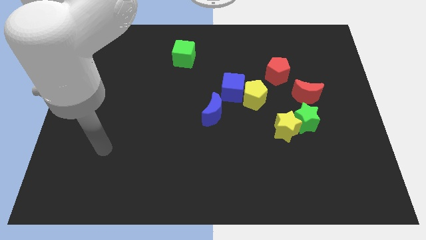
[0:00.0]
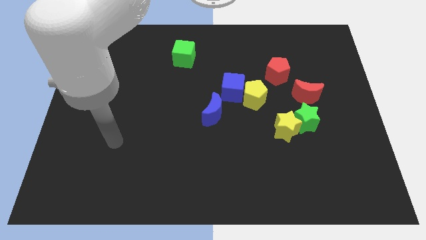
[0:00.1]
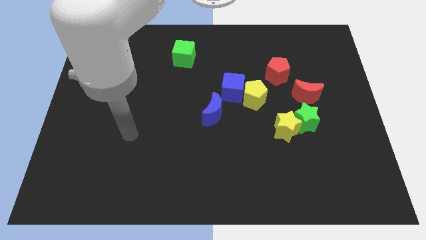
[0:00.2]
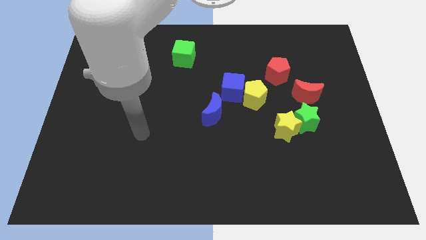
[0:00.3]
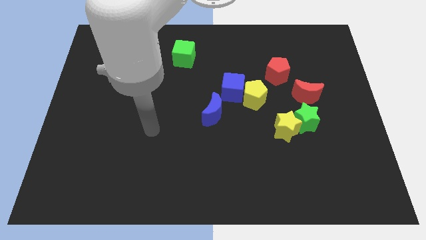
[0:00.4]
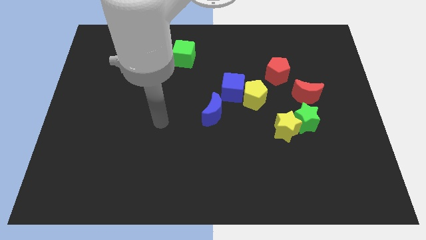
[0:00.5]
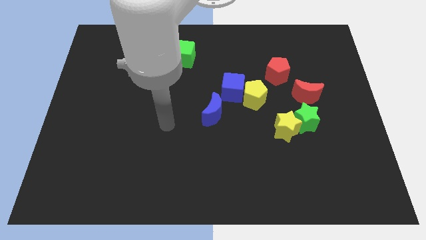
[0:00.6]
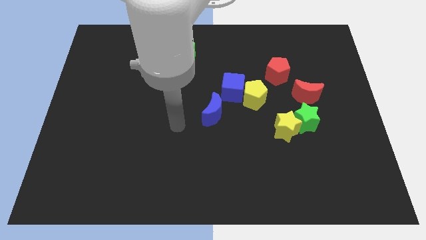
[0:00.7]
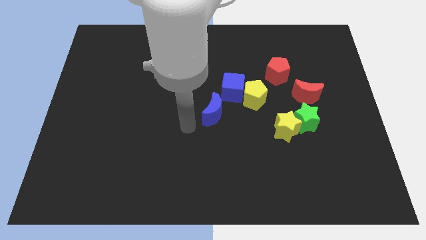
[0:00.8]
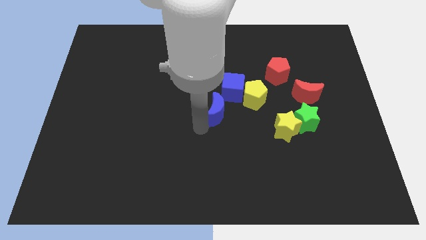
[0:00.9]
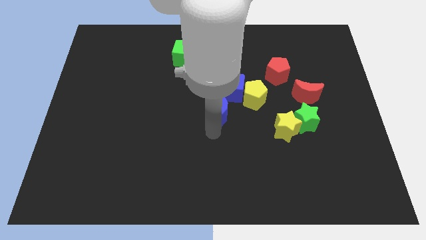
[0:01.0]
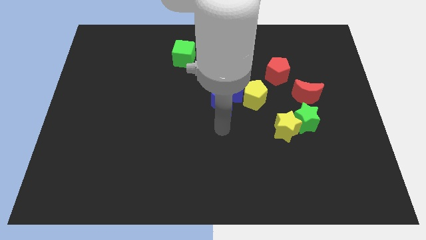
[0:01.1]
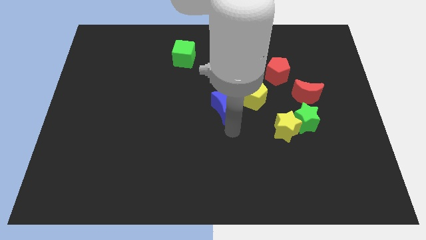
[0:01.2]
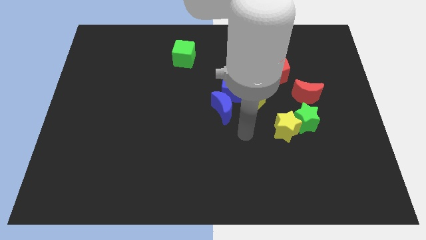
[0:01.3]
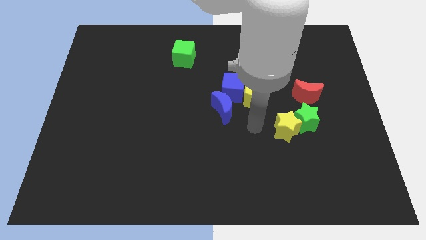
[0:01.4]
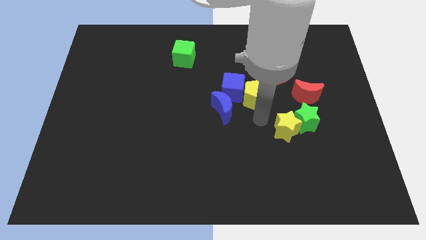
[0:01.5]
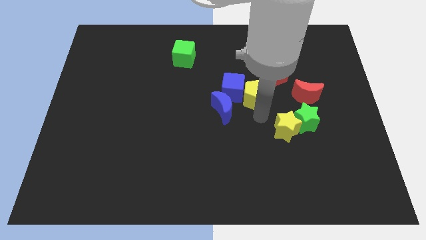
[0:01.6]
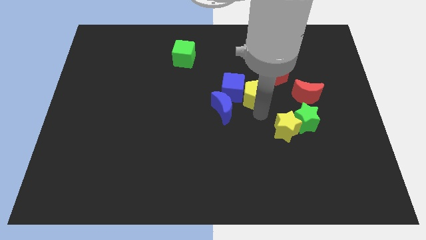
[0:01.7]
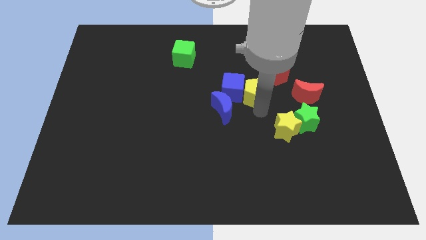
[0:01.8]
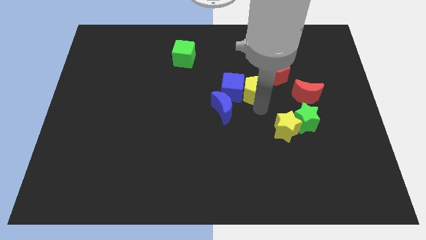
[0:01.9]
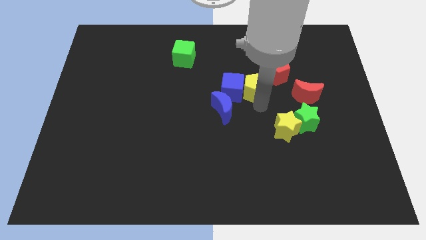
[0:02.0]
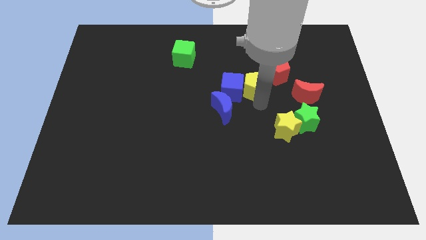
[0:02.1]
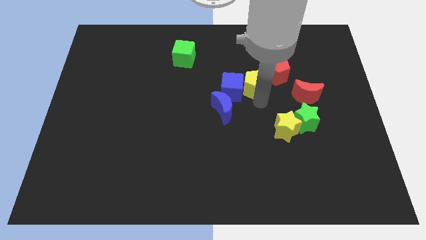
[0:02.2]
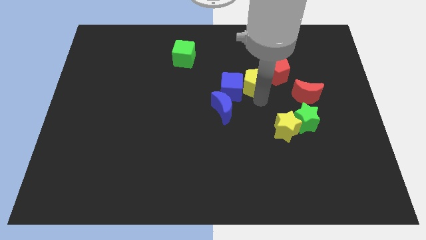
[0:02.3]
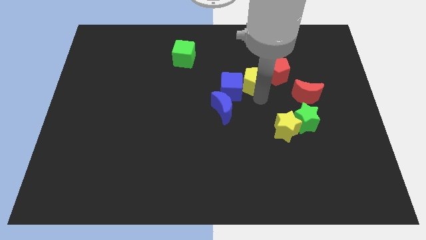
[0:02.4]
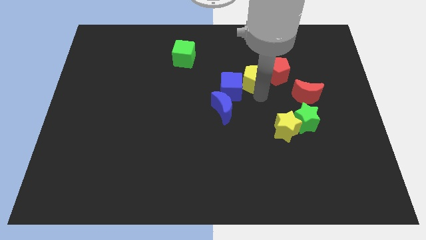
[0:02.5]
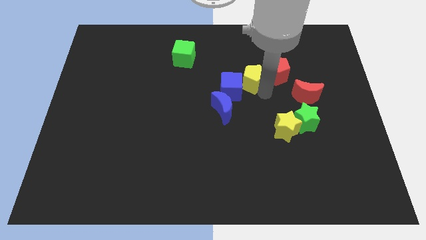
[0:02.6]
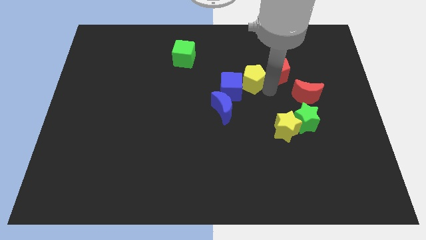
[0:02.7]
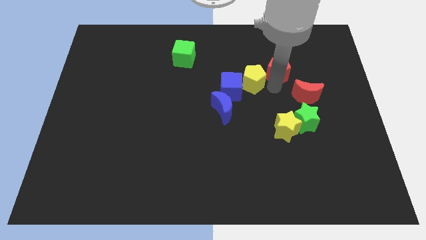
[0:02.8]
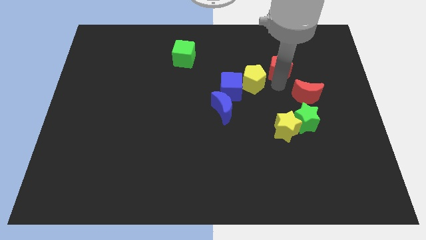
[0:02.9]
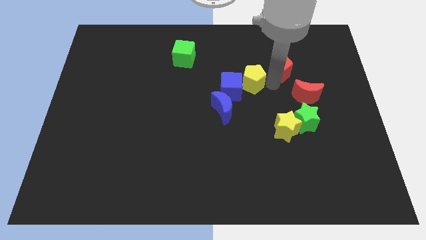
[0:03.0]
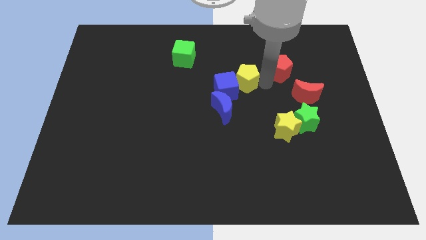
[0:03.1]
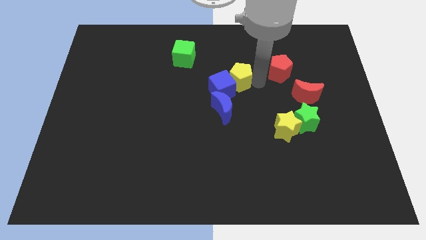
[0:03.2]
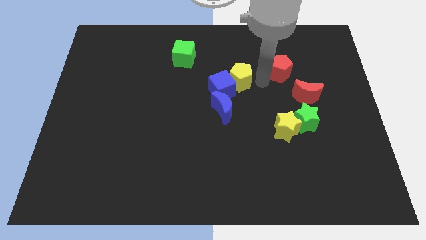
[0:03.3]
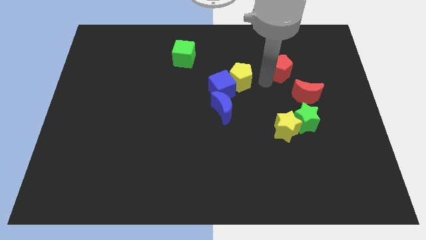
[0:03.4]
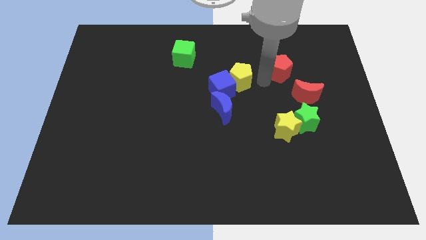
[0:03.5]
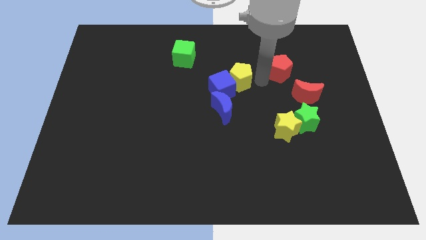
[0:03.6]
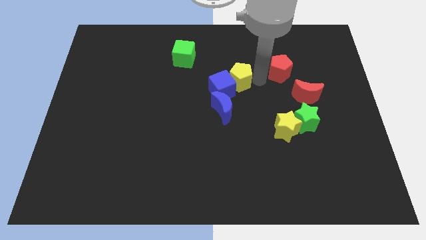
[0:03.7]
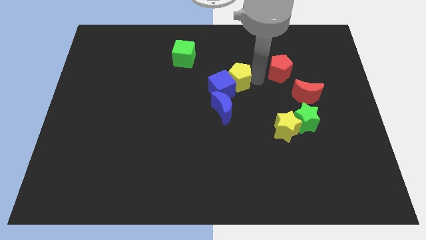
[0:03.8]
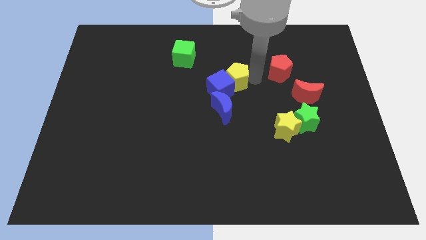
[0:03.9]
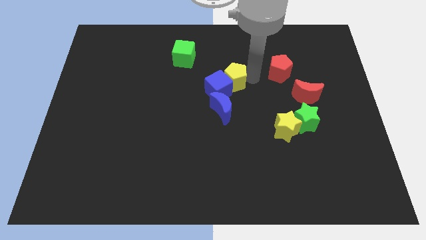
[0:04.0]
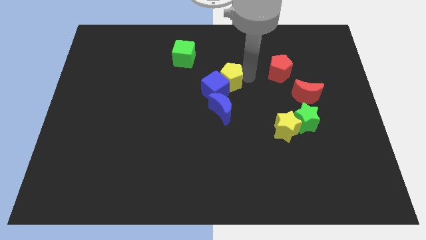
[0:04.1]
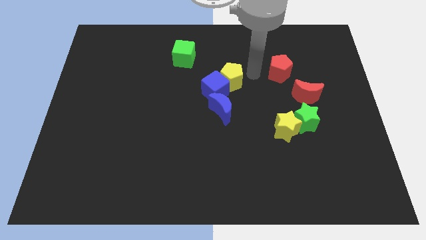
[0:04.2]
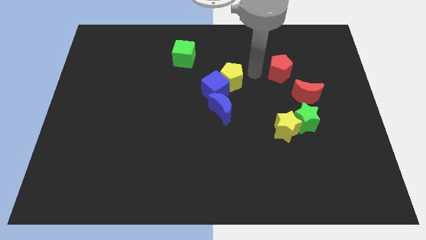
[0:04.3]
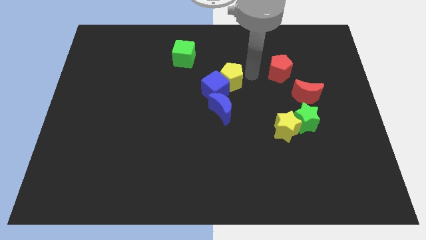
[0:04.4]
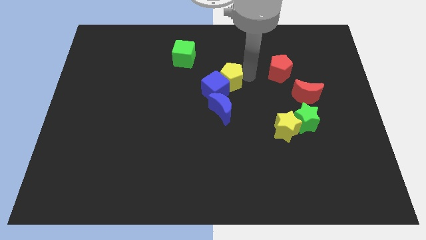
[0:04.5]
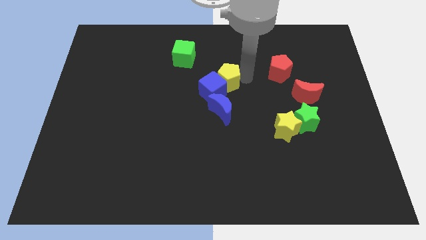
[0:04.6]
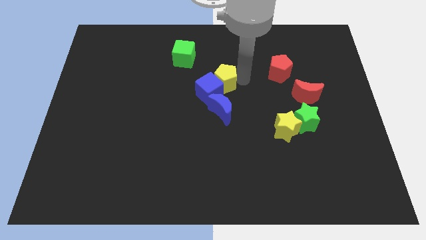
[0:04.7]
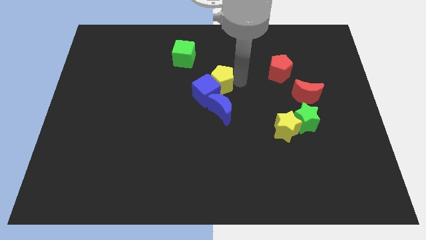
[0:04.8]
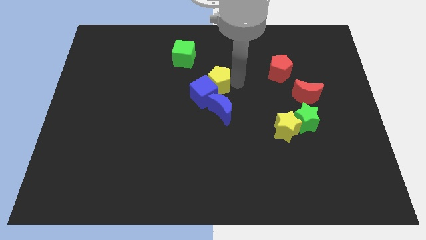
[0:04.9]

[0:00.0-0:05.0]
slide the yellow pentagon a bit left

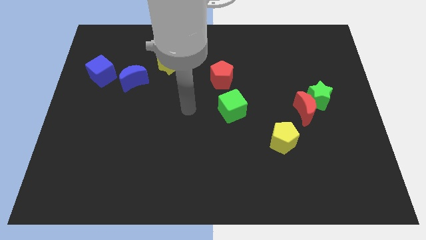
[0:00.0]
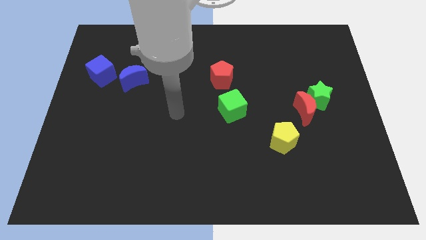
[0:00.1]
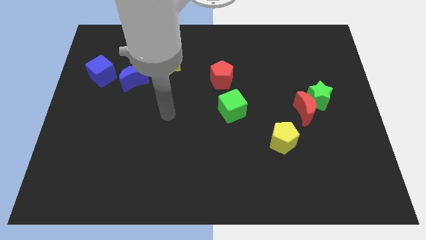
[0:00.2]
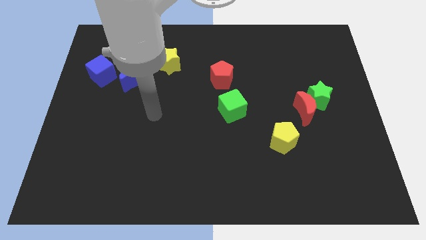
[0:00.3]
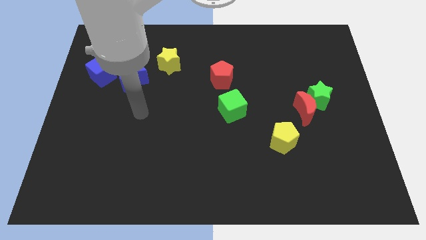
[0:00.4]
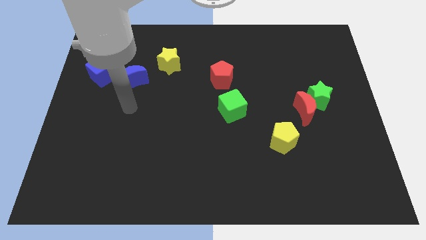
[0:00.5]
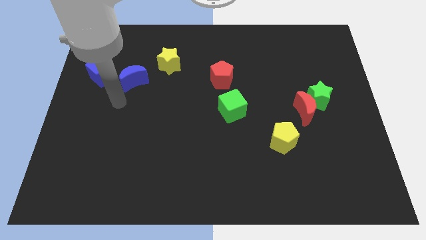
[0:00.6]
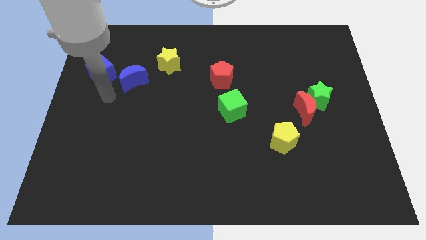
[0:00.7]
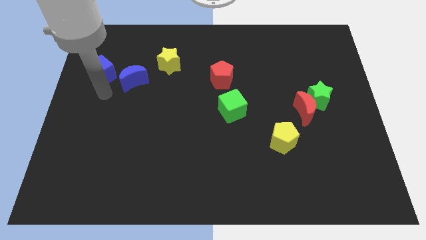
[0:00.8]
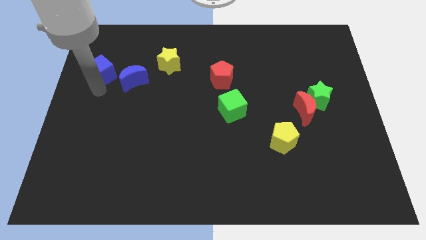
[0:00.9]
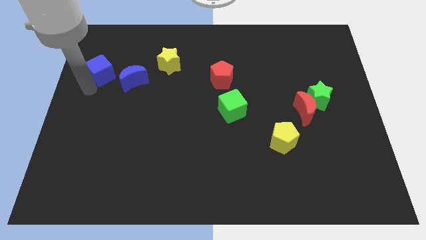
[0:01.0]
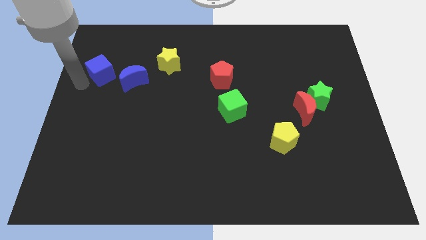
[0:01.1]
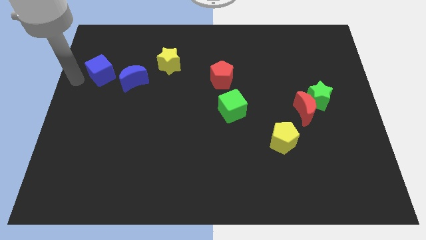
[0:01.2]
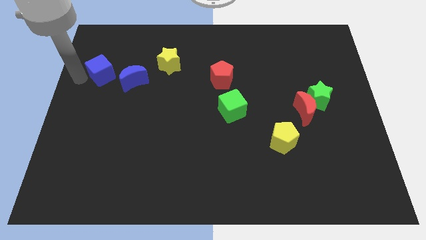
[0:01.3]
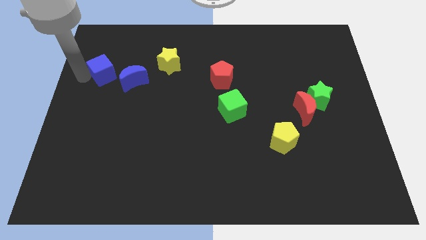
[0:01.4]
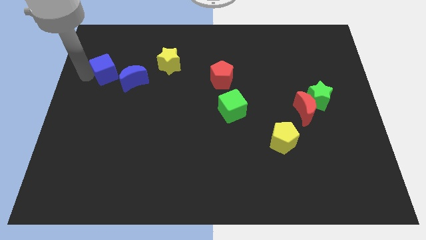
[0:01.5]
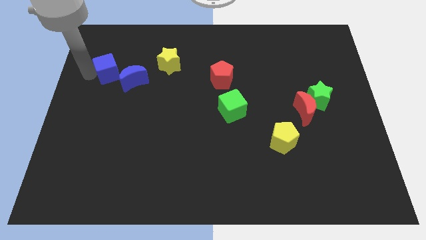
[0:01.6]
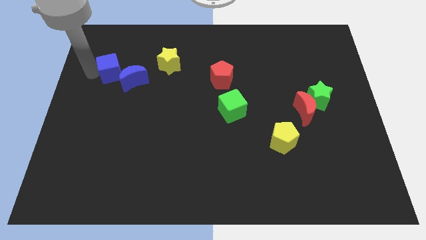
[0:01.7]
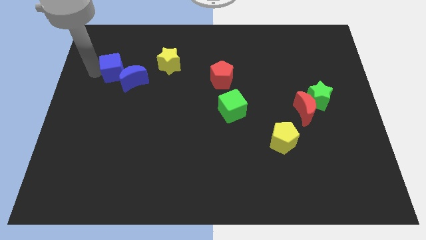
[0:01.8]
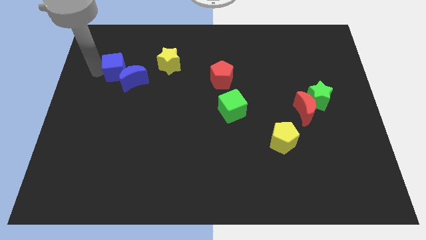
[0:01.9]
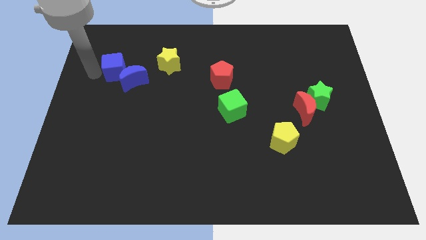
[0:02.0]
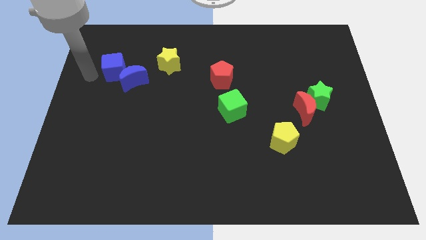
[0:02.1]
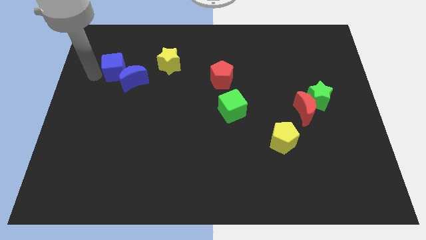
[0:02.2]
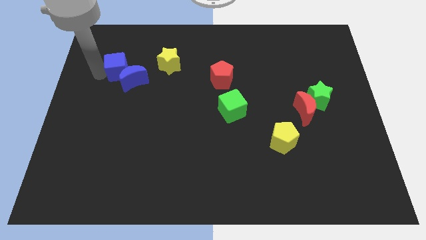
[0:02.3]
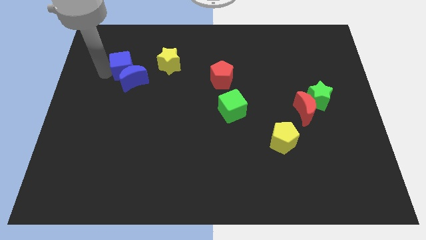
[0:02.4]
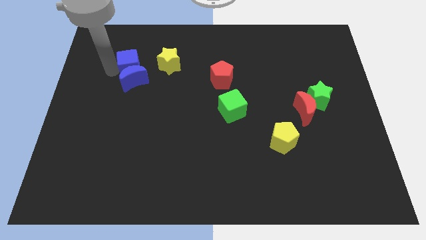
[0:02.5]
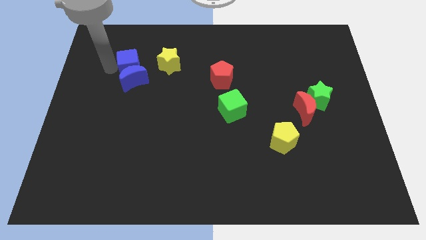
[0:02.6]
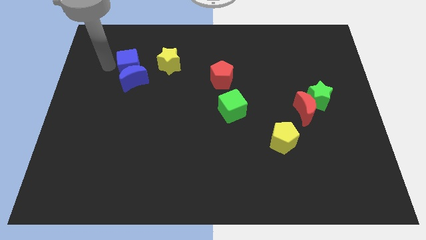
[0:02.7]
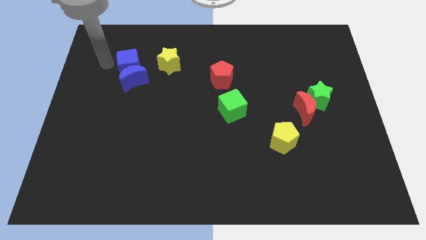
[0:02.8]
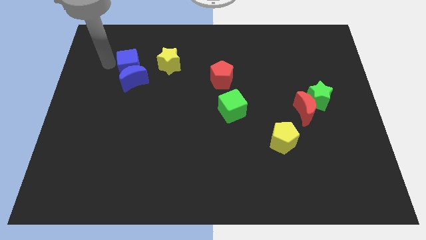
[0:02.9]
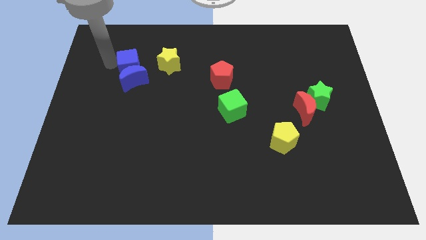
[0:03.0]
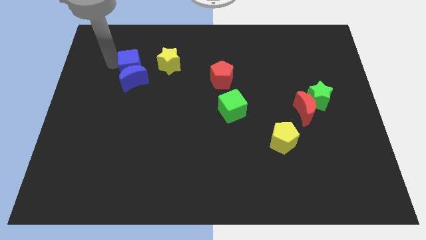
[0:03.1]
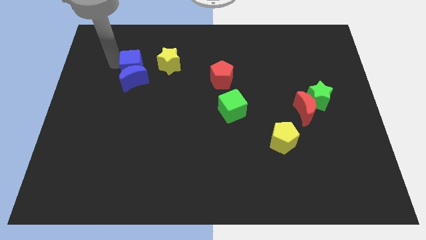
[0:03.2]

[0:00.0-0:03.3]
push the blue cube somewhat to the right
